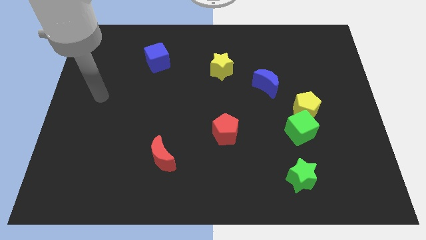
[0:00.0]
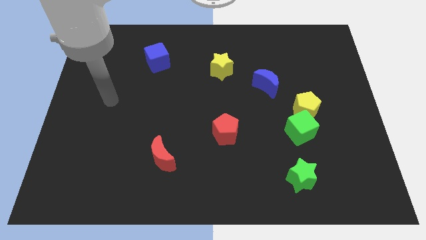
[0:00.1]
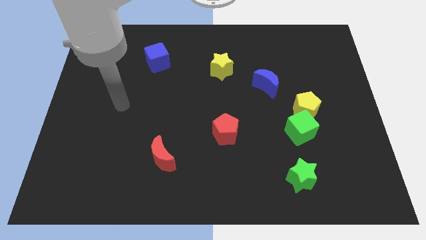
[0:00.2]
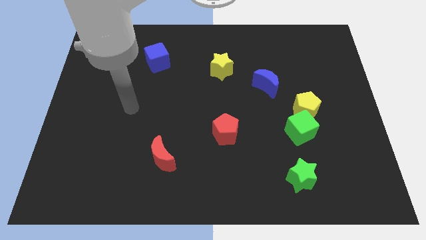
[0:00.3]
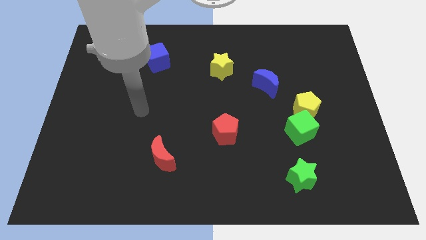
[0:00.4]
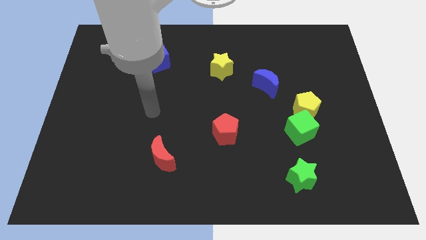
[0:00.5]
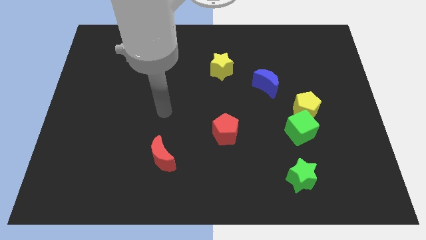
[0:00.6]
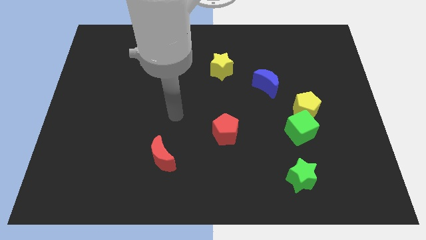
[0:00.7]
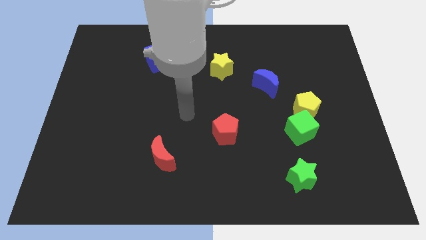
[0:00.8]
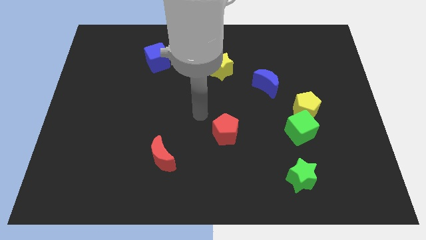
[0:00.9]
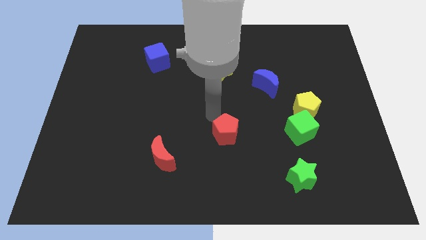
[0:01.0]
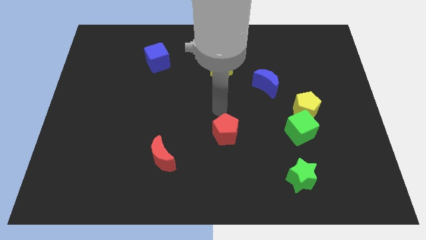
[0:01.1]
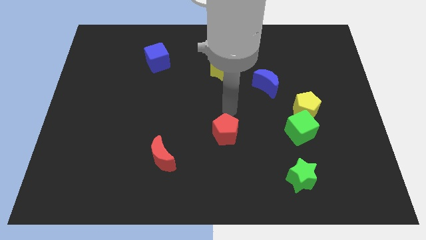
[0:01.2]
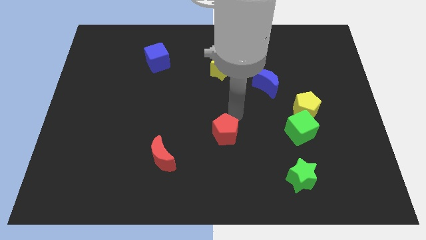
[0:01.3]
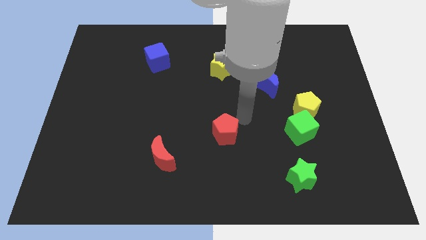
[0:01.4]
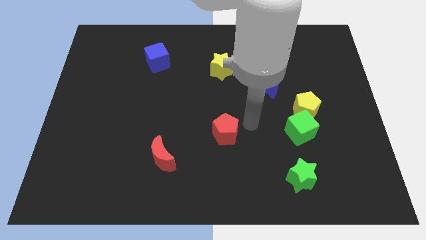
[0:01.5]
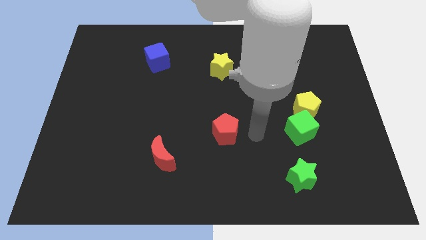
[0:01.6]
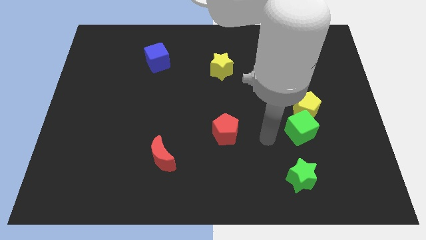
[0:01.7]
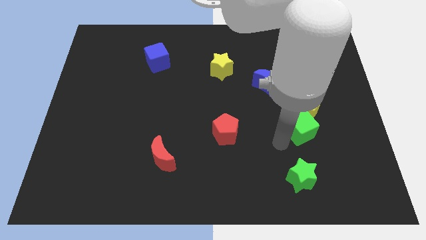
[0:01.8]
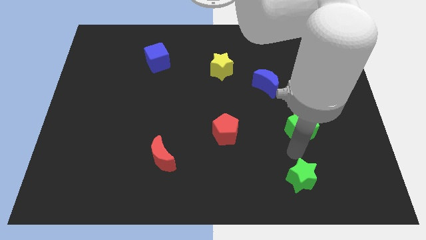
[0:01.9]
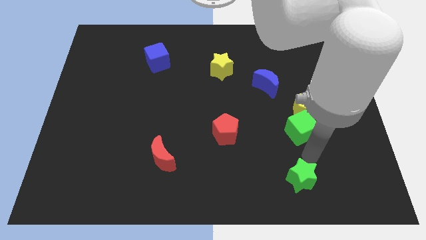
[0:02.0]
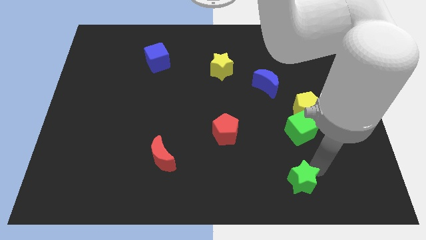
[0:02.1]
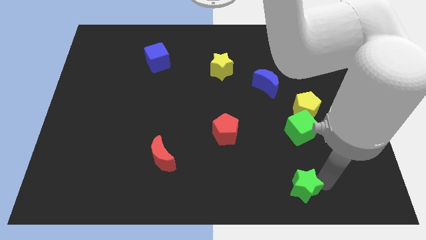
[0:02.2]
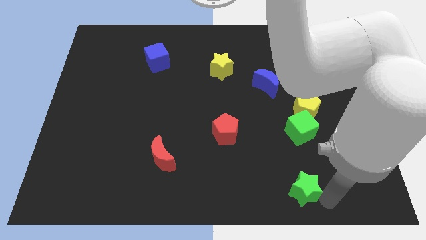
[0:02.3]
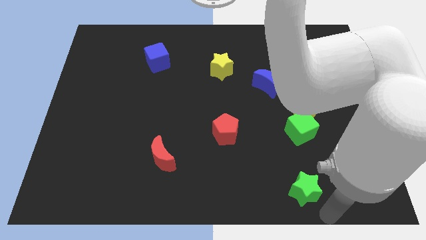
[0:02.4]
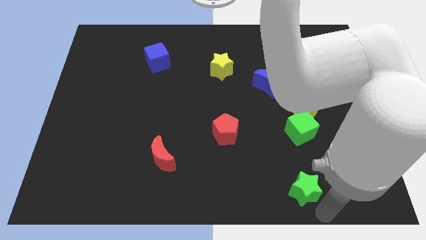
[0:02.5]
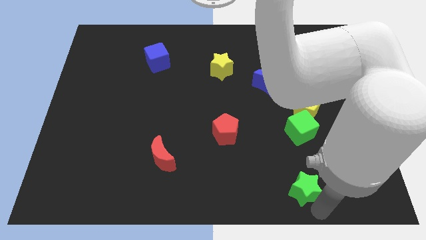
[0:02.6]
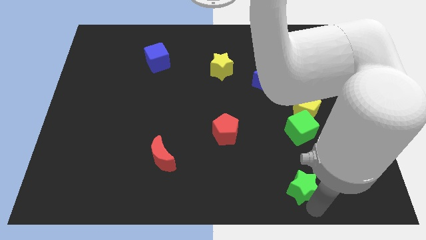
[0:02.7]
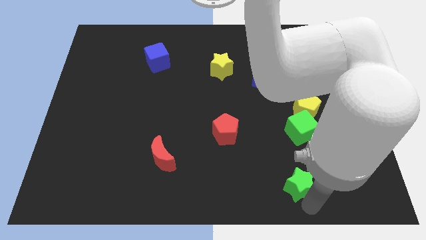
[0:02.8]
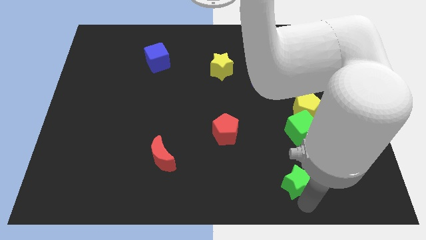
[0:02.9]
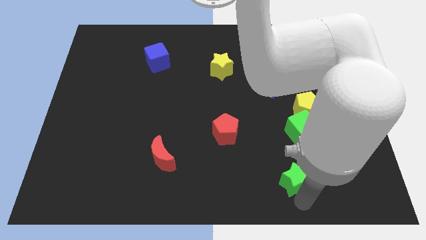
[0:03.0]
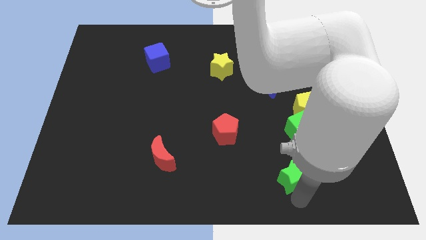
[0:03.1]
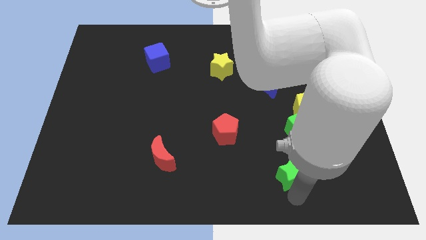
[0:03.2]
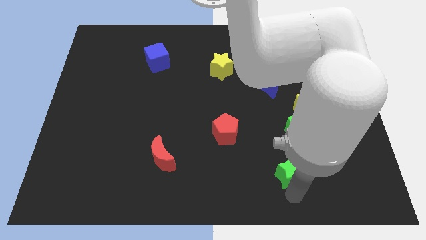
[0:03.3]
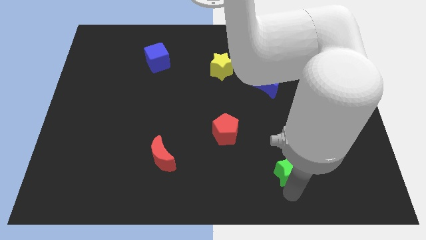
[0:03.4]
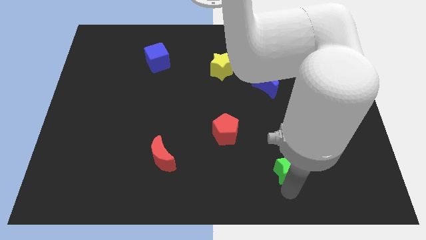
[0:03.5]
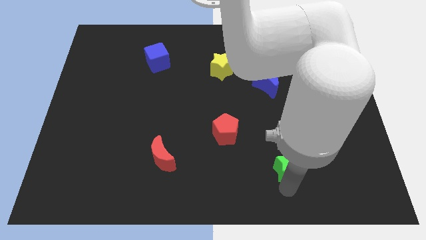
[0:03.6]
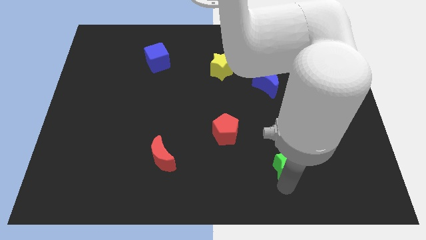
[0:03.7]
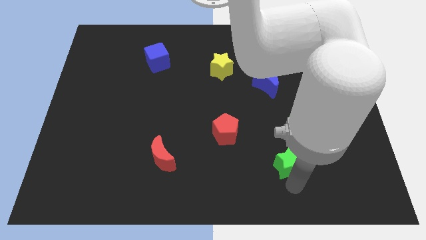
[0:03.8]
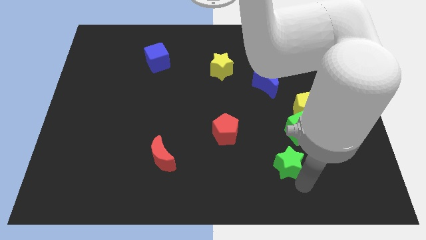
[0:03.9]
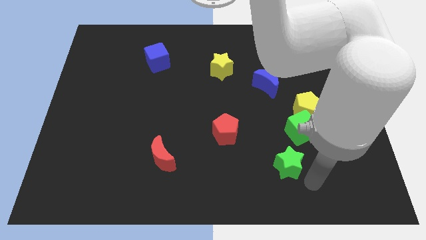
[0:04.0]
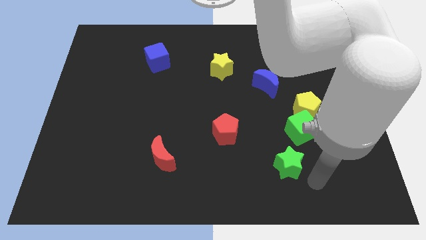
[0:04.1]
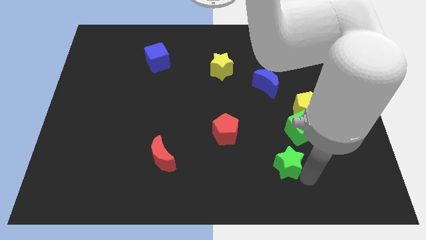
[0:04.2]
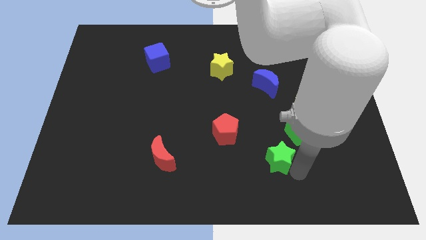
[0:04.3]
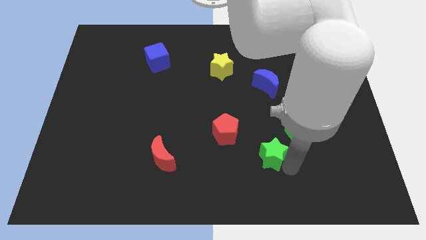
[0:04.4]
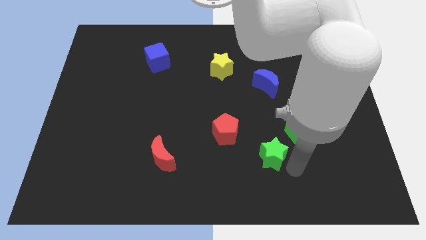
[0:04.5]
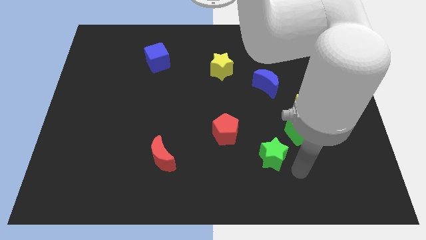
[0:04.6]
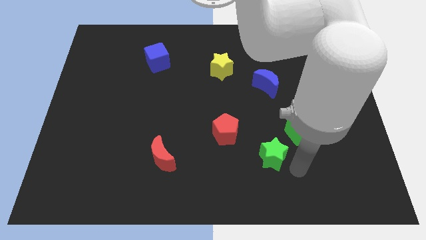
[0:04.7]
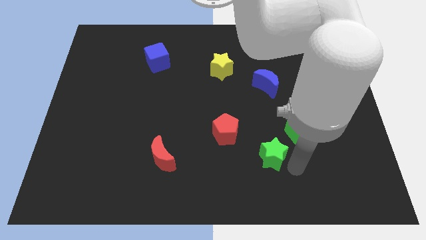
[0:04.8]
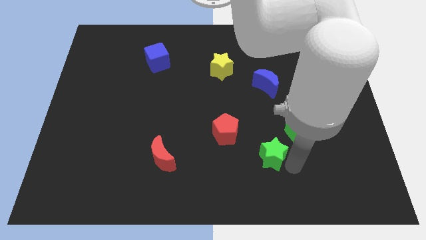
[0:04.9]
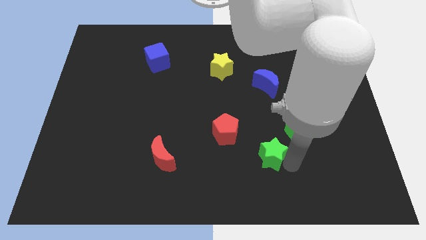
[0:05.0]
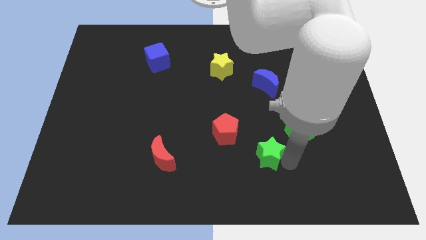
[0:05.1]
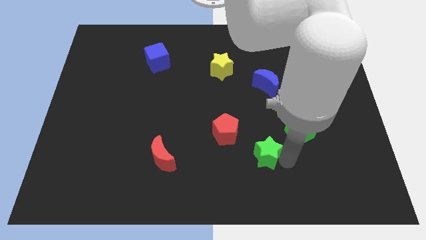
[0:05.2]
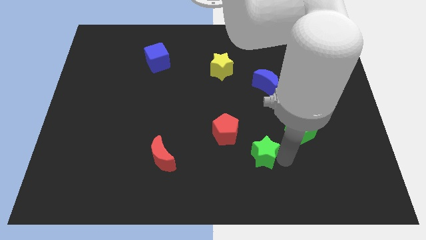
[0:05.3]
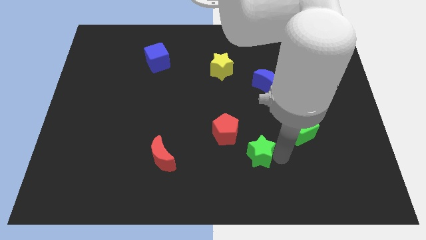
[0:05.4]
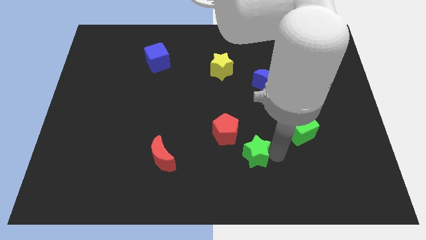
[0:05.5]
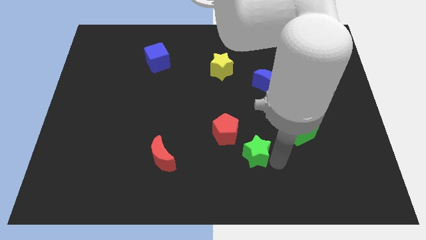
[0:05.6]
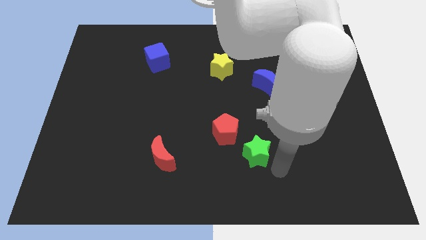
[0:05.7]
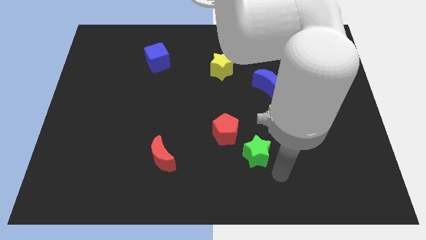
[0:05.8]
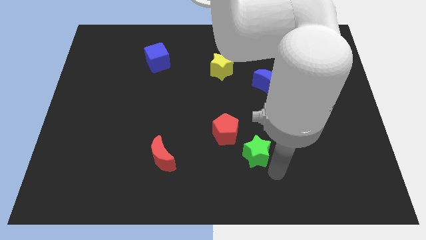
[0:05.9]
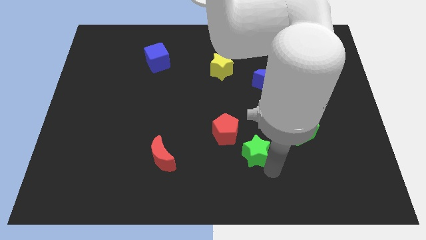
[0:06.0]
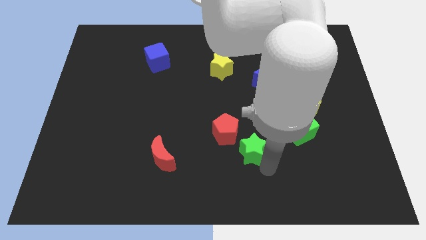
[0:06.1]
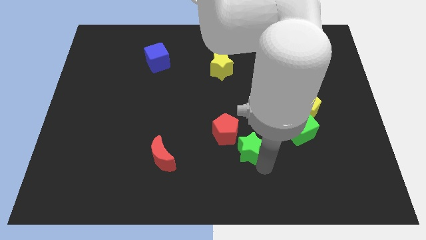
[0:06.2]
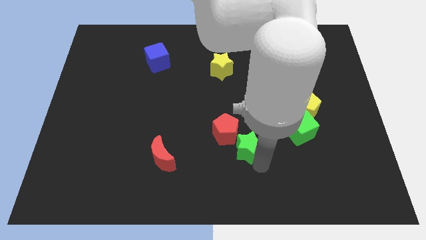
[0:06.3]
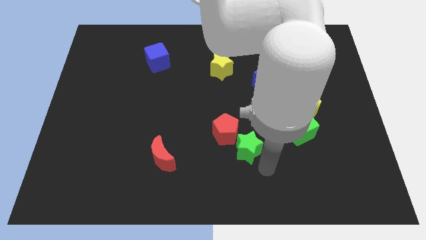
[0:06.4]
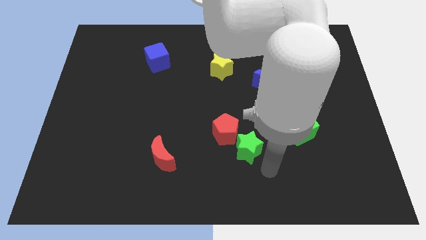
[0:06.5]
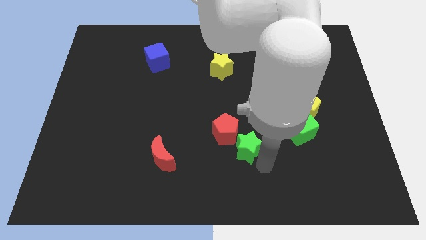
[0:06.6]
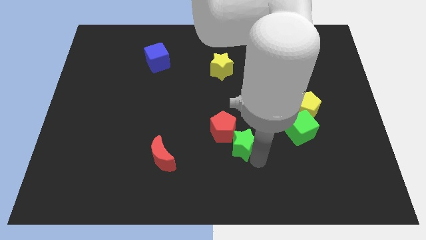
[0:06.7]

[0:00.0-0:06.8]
put the green star close to the red pentagon
